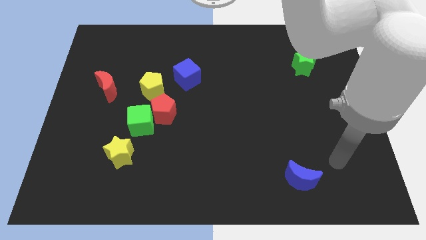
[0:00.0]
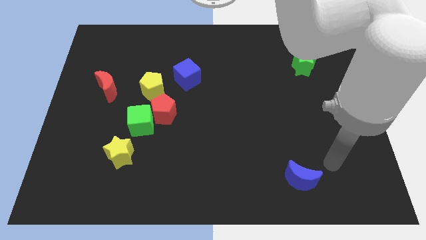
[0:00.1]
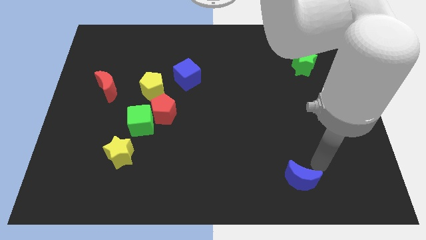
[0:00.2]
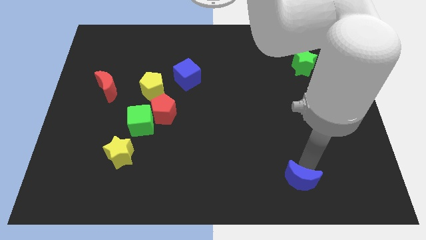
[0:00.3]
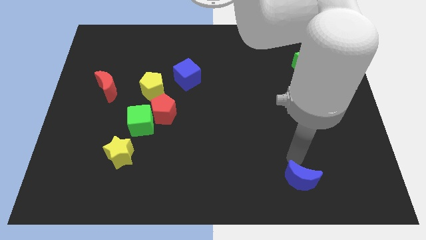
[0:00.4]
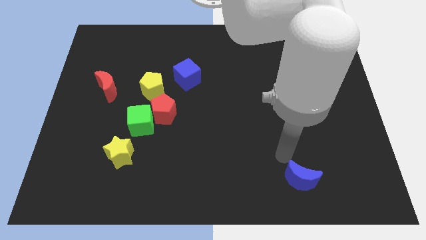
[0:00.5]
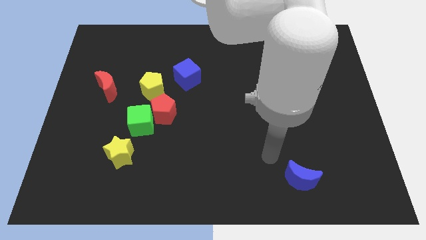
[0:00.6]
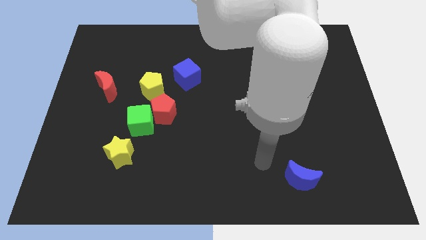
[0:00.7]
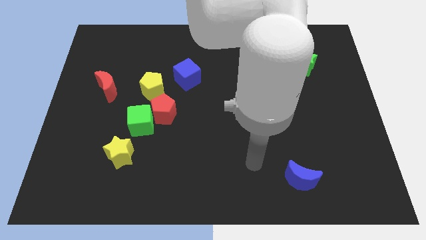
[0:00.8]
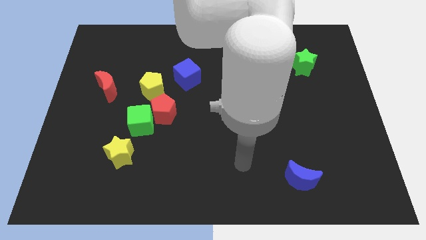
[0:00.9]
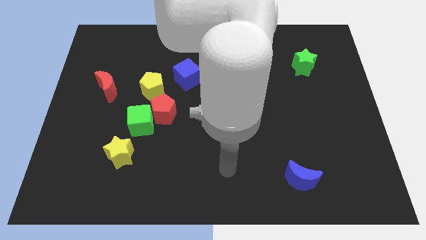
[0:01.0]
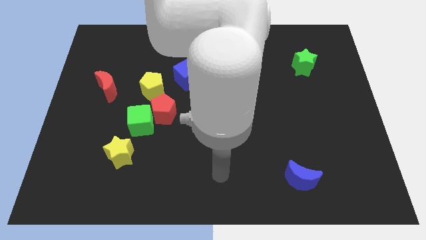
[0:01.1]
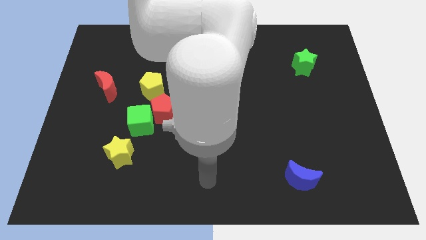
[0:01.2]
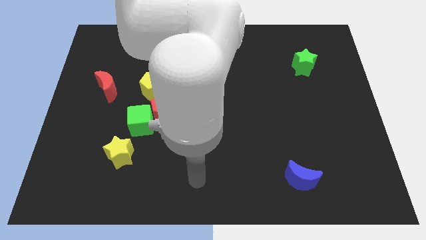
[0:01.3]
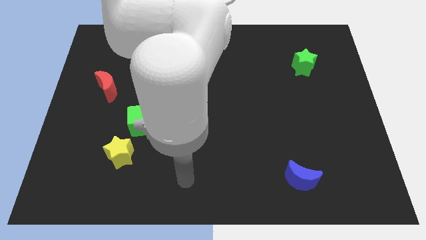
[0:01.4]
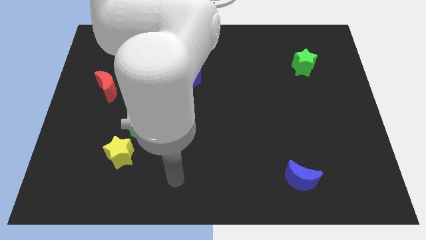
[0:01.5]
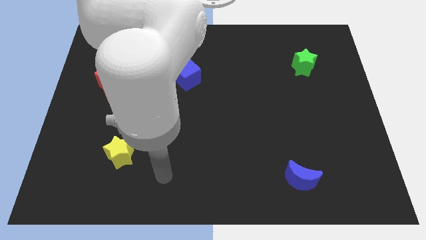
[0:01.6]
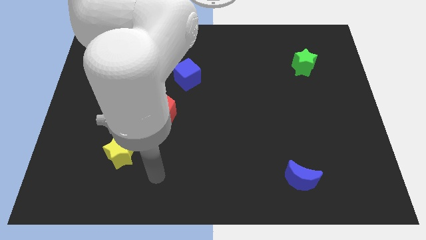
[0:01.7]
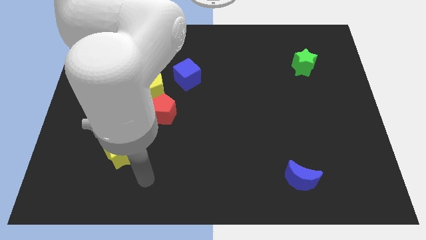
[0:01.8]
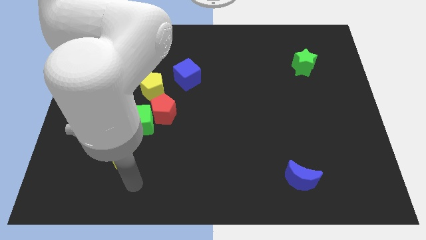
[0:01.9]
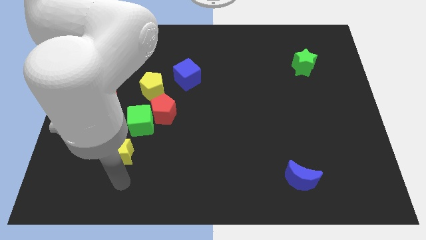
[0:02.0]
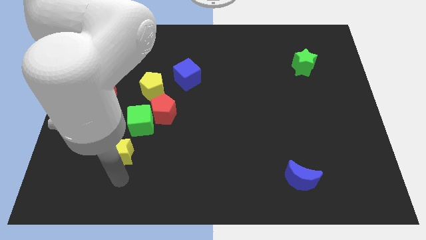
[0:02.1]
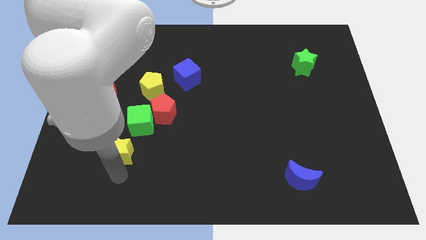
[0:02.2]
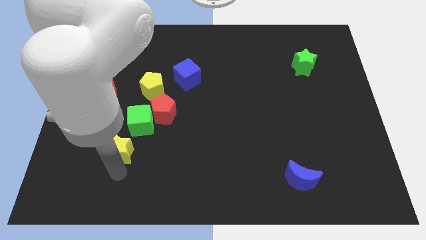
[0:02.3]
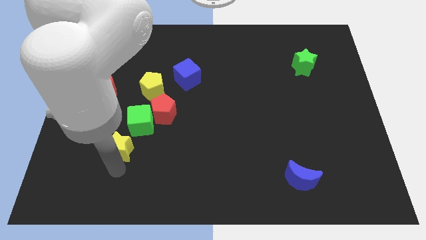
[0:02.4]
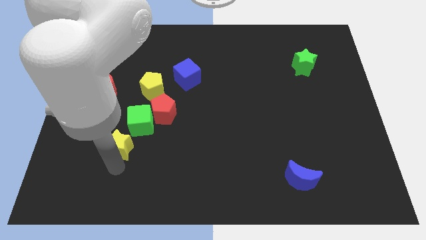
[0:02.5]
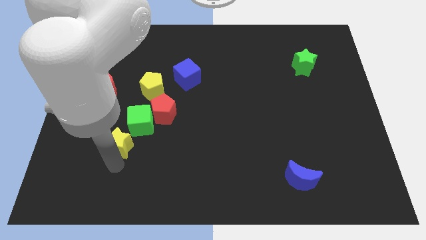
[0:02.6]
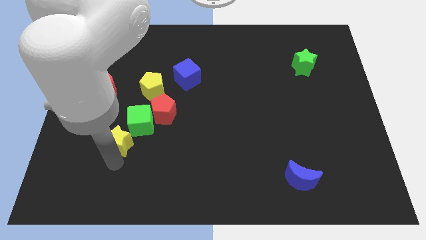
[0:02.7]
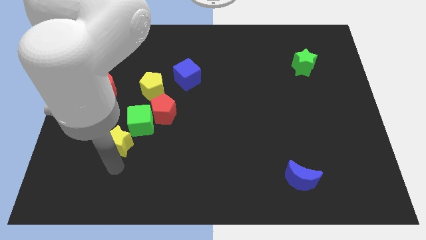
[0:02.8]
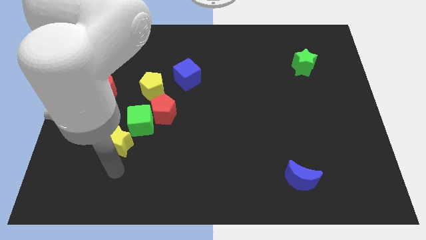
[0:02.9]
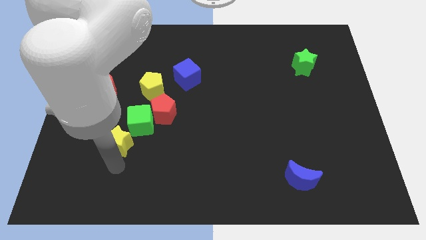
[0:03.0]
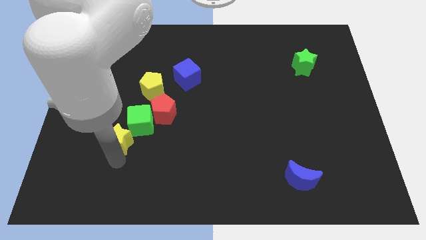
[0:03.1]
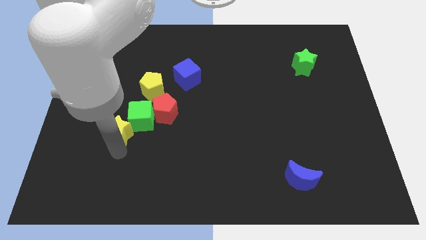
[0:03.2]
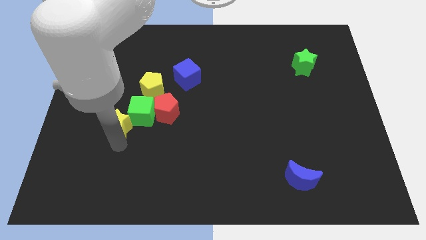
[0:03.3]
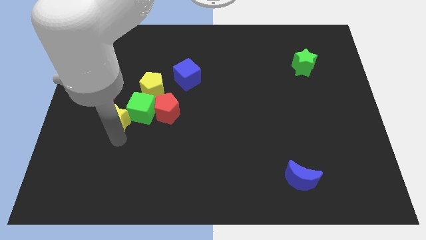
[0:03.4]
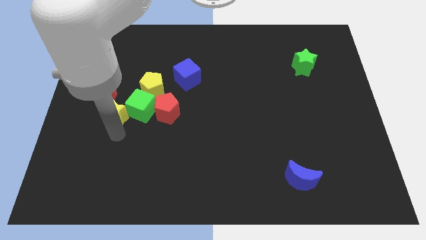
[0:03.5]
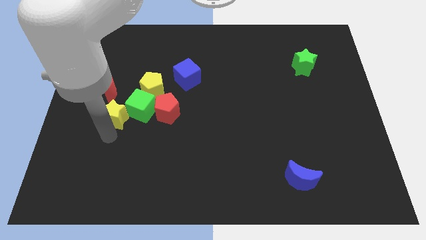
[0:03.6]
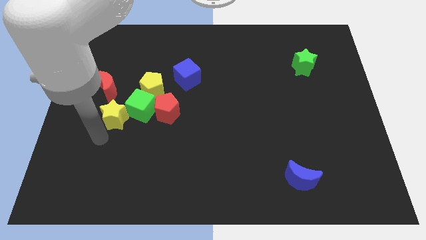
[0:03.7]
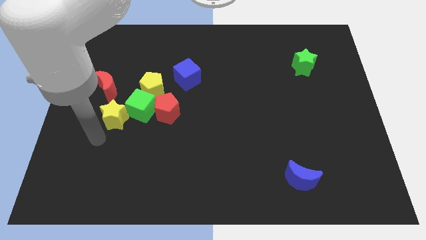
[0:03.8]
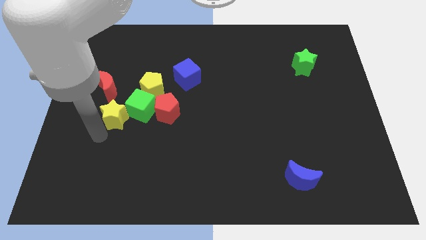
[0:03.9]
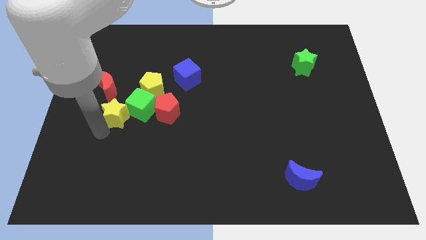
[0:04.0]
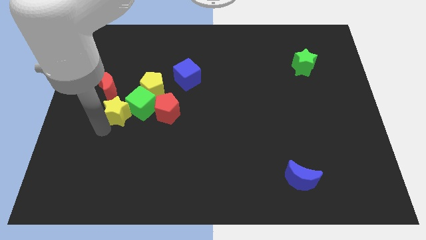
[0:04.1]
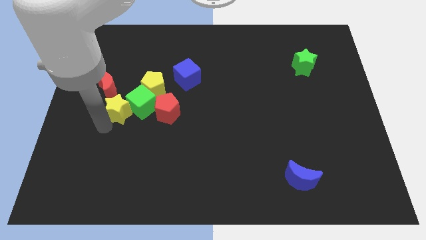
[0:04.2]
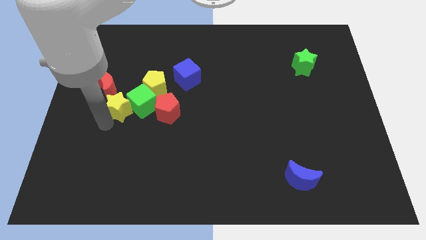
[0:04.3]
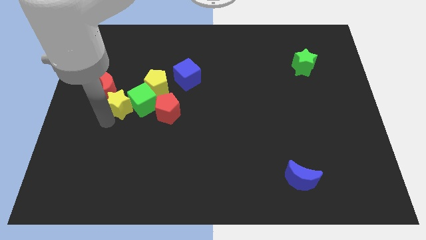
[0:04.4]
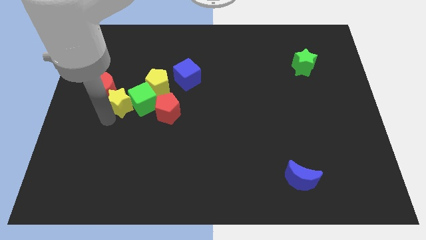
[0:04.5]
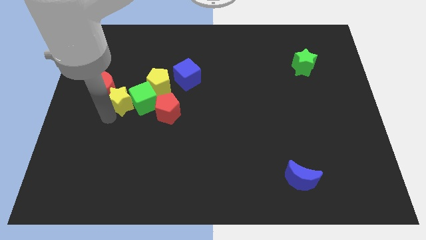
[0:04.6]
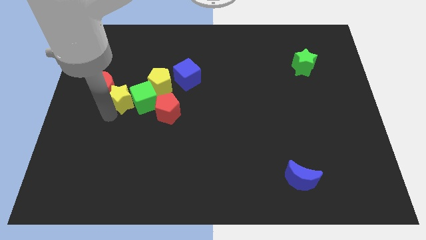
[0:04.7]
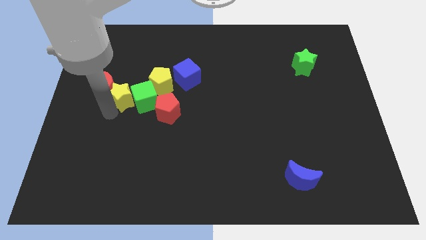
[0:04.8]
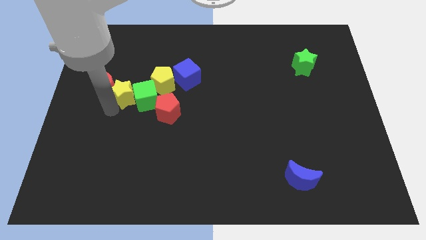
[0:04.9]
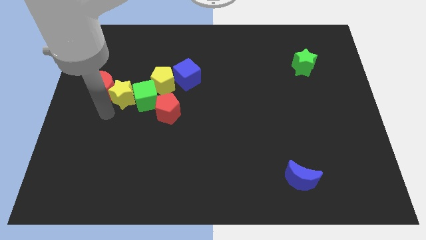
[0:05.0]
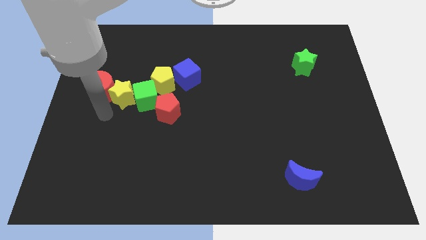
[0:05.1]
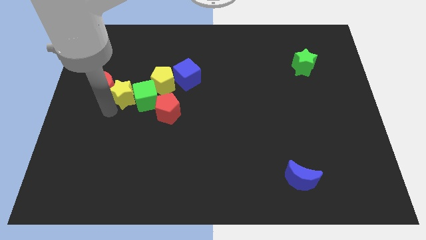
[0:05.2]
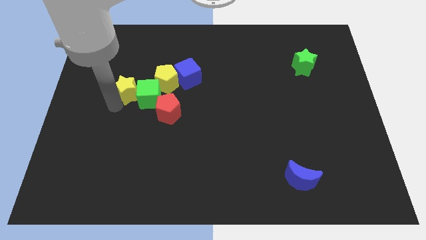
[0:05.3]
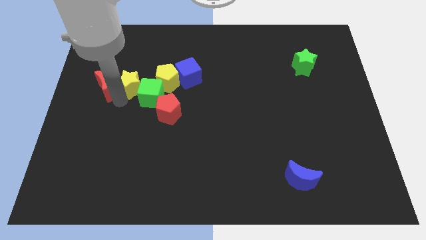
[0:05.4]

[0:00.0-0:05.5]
push the yellow star left of the blue cube

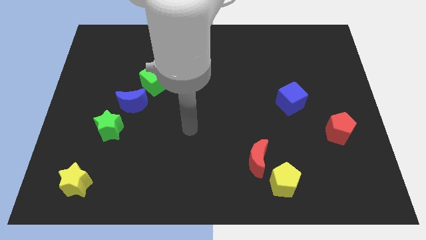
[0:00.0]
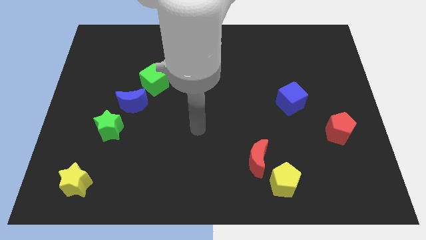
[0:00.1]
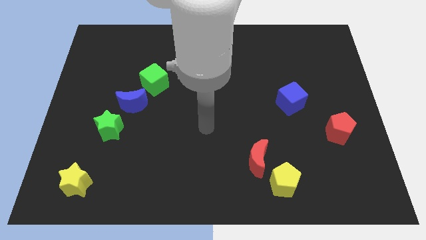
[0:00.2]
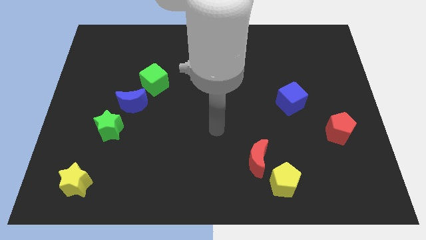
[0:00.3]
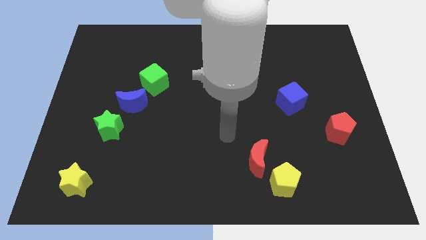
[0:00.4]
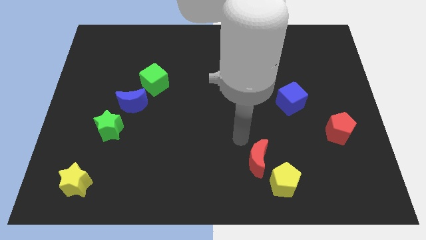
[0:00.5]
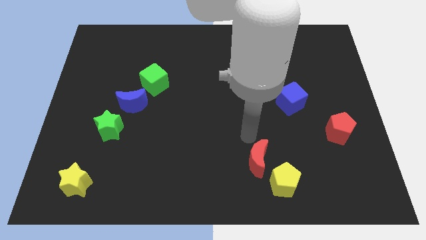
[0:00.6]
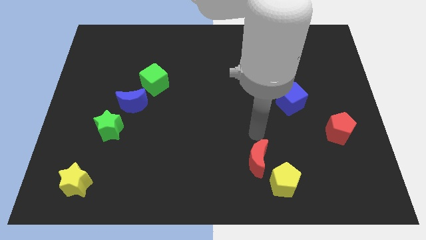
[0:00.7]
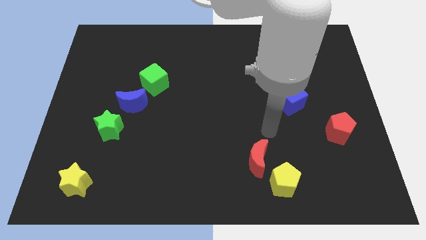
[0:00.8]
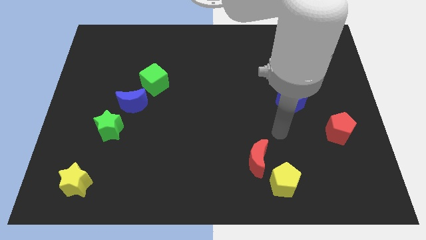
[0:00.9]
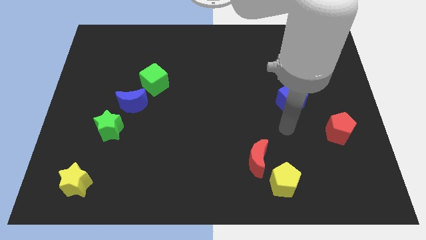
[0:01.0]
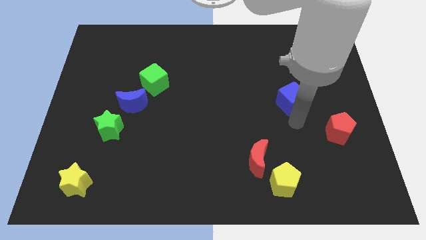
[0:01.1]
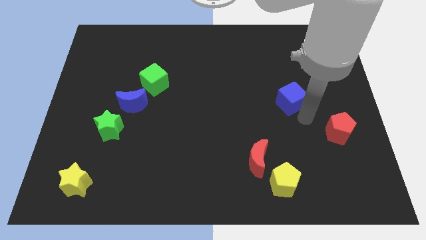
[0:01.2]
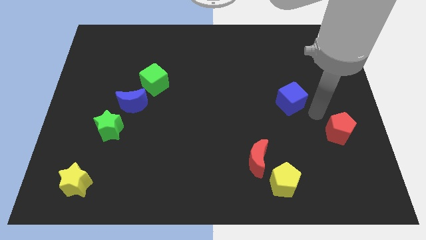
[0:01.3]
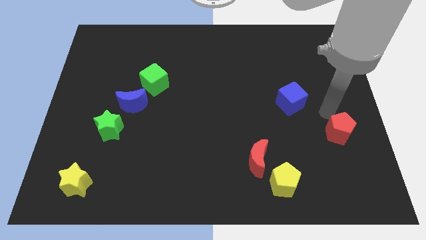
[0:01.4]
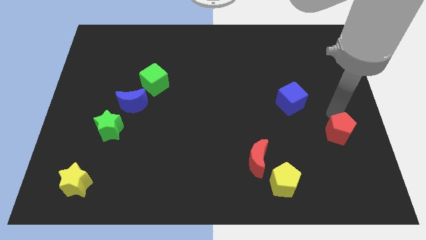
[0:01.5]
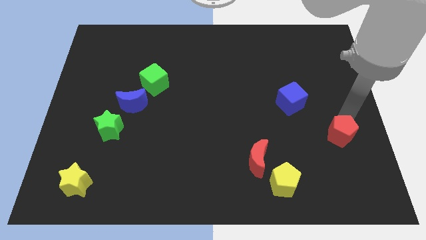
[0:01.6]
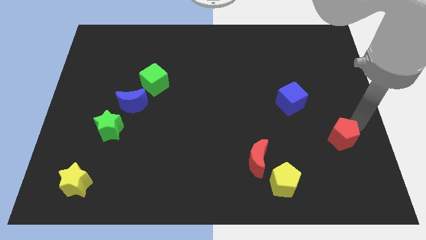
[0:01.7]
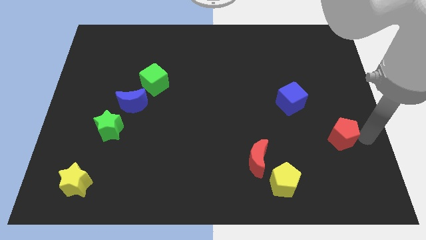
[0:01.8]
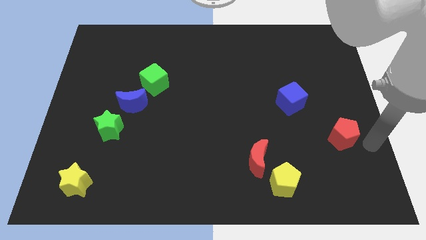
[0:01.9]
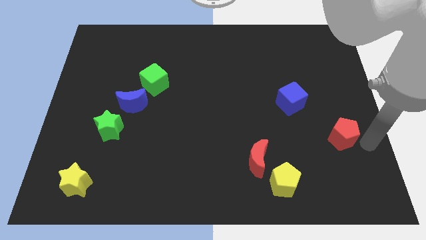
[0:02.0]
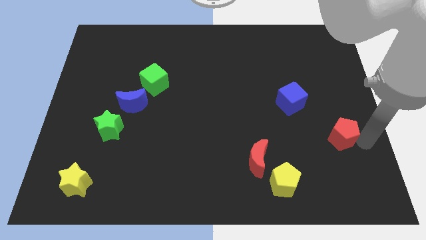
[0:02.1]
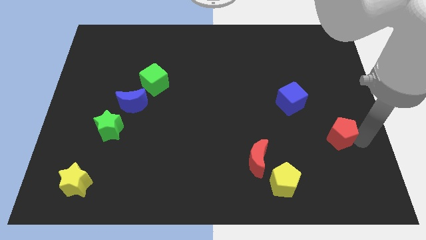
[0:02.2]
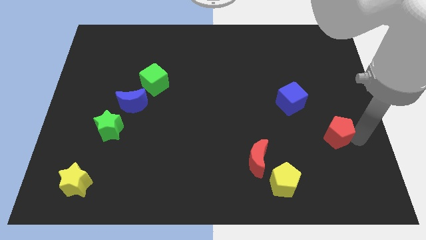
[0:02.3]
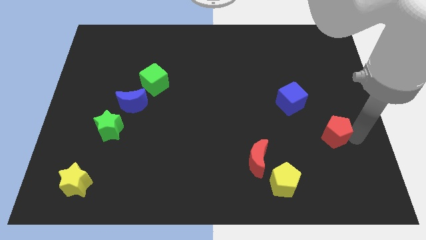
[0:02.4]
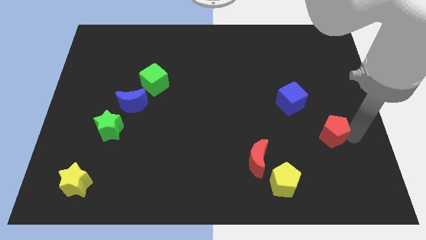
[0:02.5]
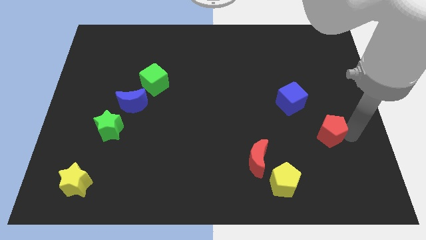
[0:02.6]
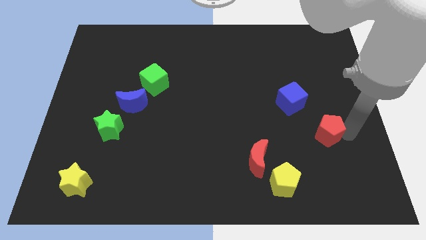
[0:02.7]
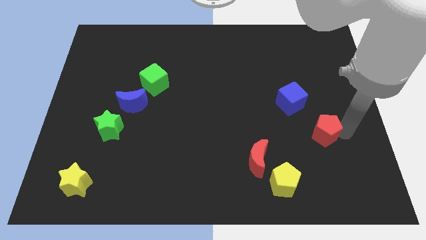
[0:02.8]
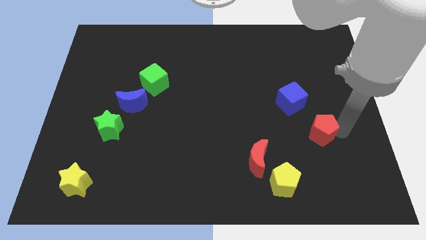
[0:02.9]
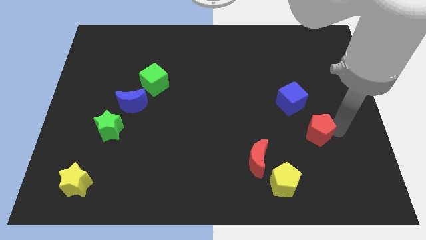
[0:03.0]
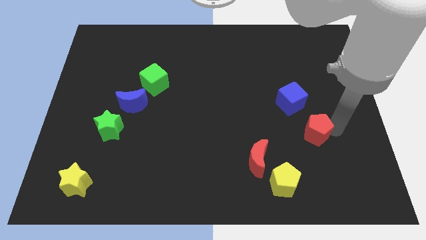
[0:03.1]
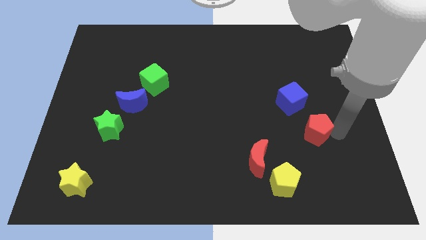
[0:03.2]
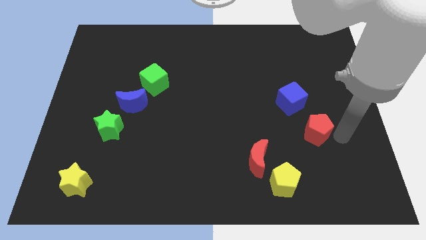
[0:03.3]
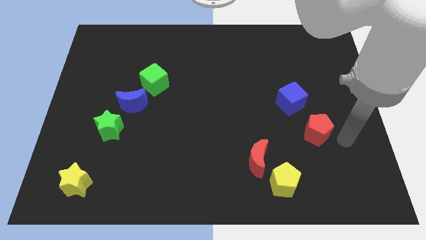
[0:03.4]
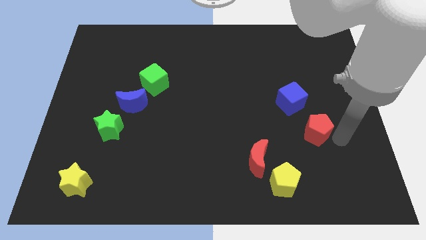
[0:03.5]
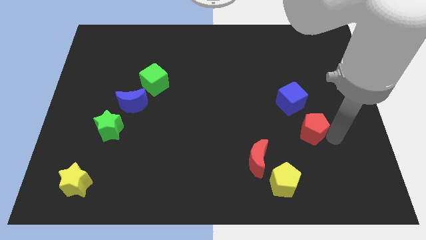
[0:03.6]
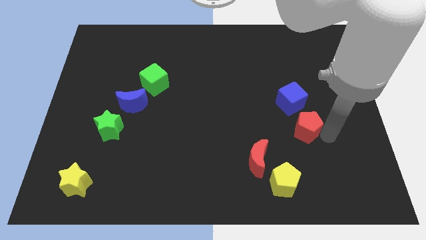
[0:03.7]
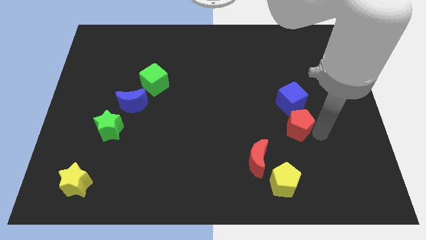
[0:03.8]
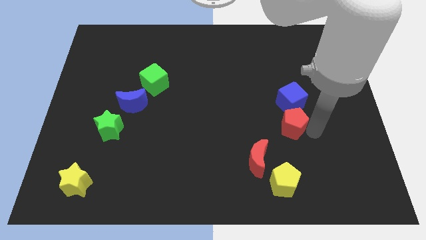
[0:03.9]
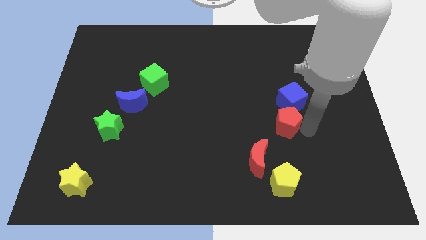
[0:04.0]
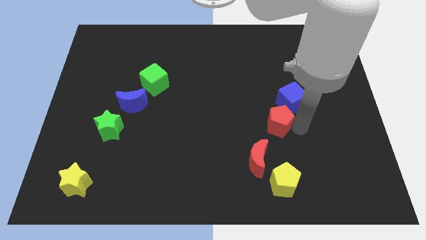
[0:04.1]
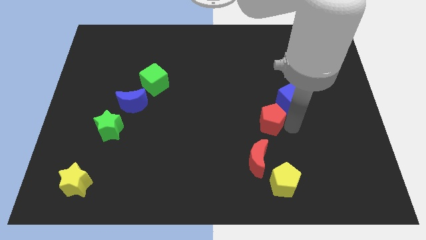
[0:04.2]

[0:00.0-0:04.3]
move the red pentagon to the top side of the red moon
